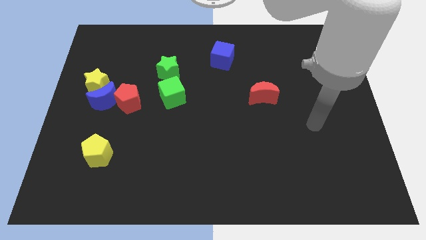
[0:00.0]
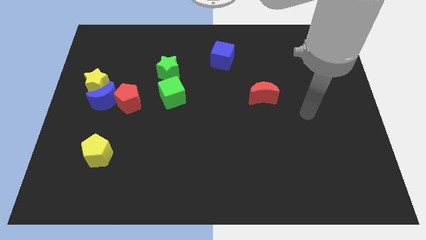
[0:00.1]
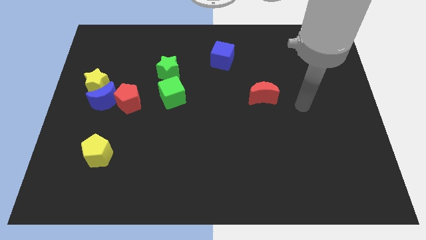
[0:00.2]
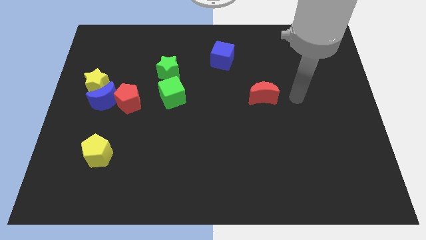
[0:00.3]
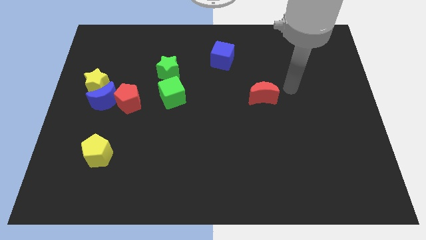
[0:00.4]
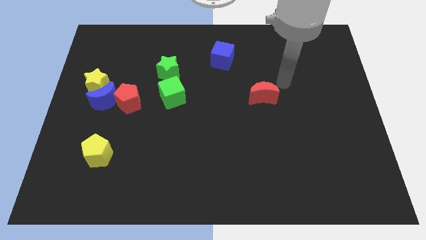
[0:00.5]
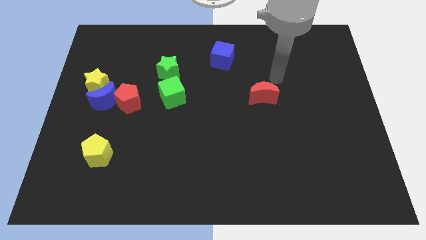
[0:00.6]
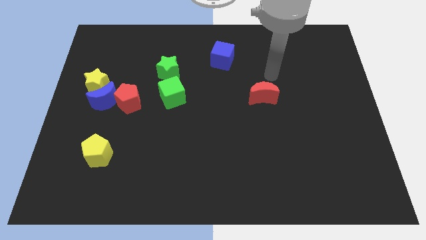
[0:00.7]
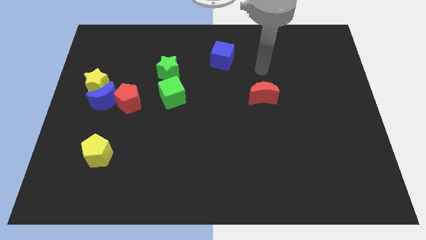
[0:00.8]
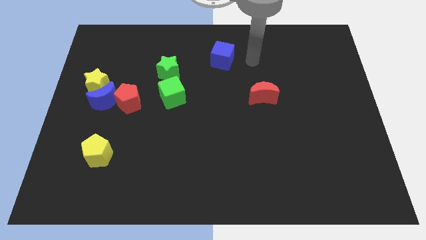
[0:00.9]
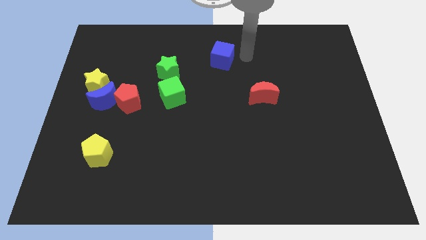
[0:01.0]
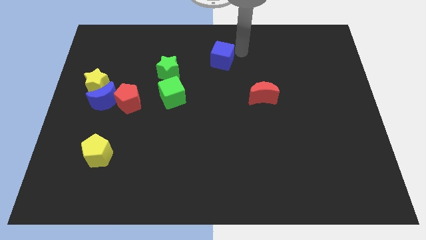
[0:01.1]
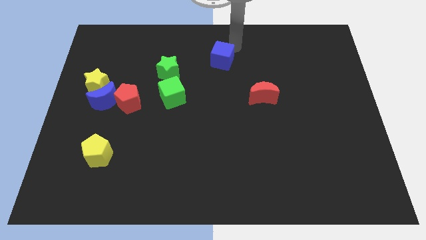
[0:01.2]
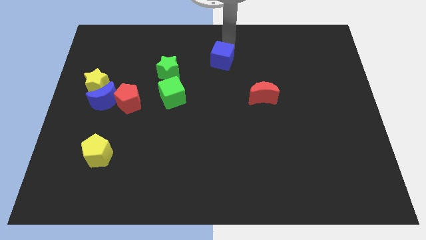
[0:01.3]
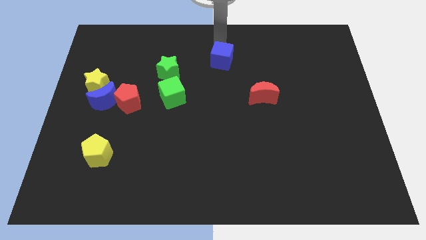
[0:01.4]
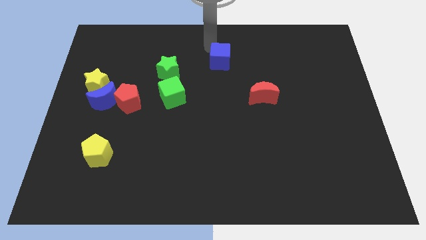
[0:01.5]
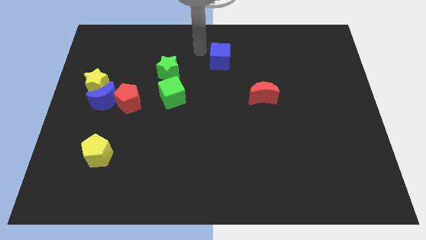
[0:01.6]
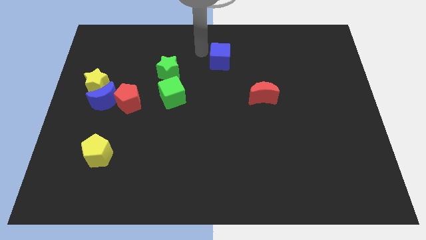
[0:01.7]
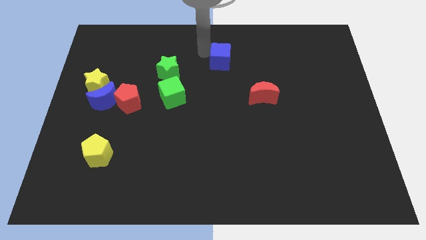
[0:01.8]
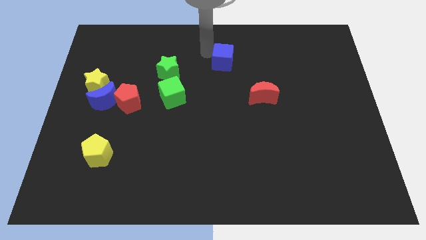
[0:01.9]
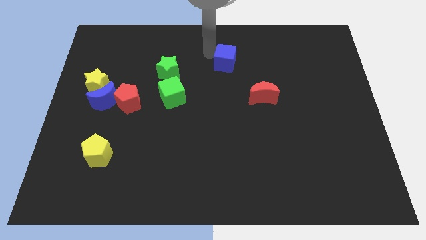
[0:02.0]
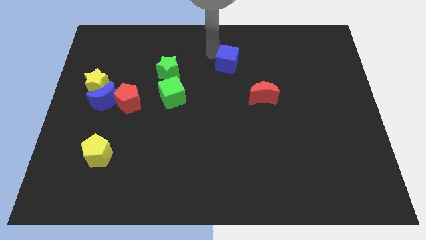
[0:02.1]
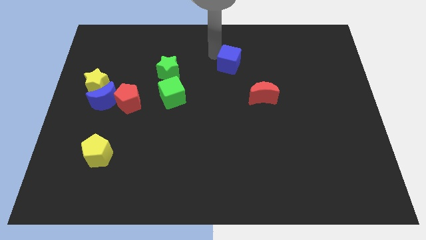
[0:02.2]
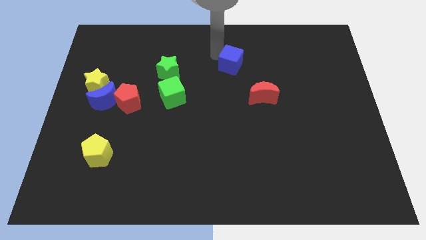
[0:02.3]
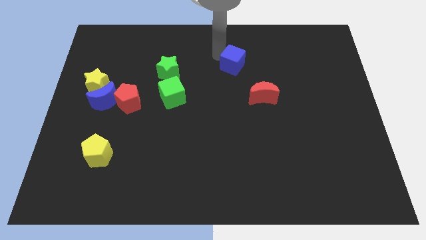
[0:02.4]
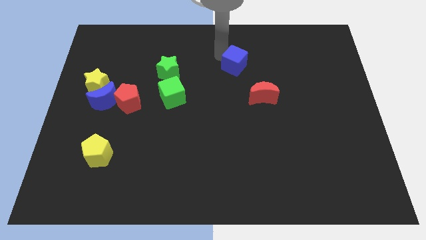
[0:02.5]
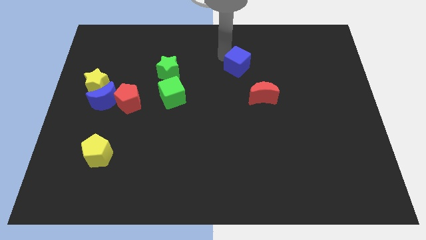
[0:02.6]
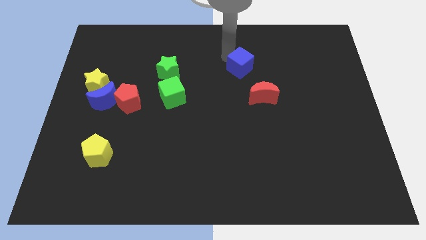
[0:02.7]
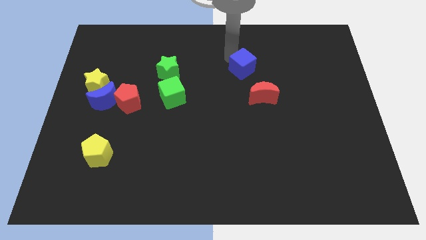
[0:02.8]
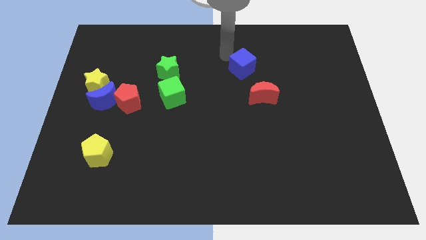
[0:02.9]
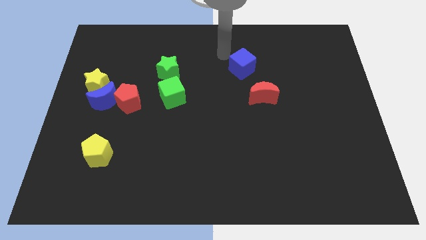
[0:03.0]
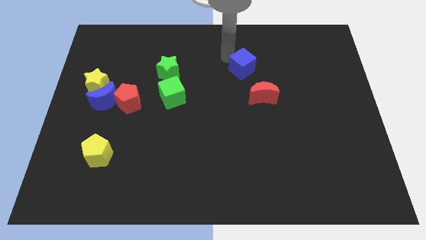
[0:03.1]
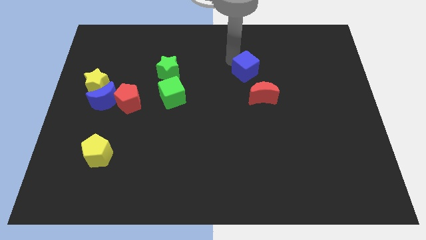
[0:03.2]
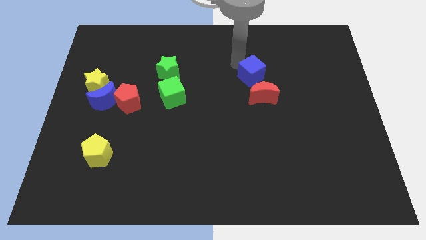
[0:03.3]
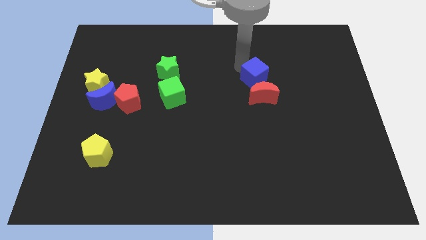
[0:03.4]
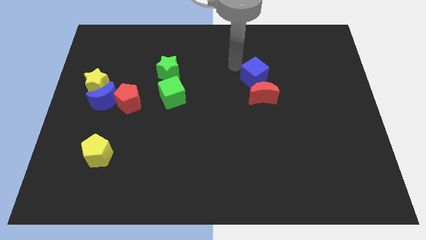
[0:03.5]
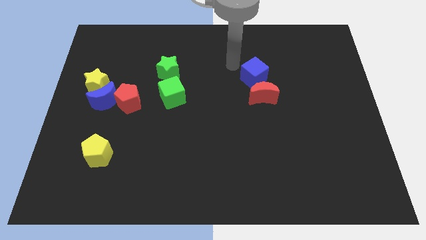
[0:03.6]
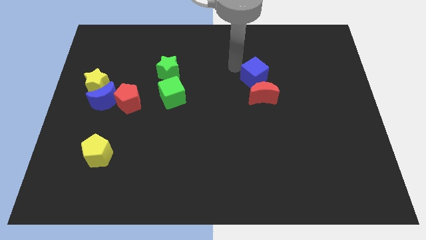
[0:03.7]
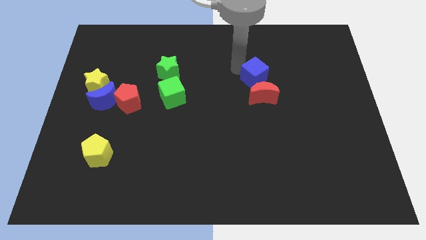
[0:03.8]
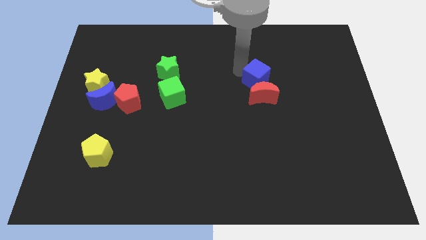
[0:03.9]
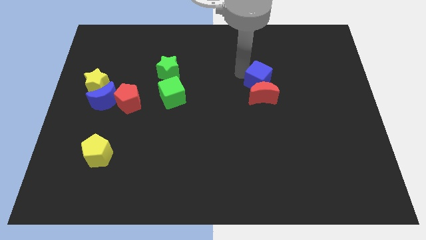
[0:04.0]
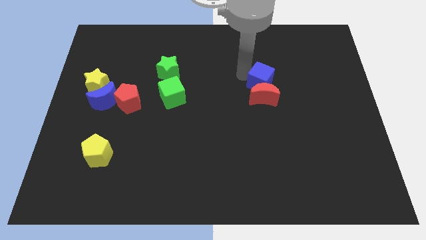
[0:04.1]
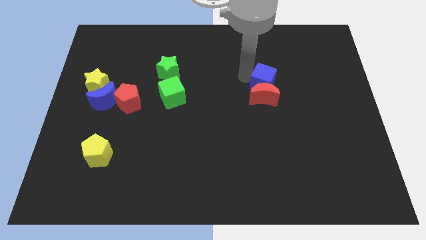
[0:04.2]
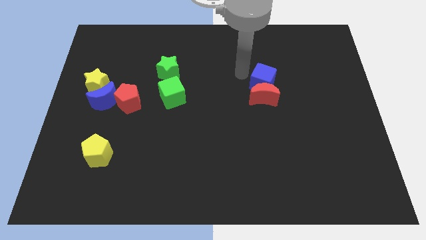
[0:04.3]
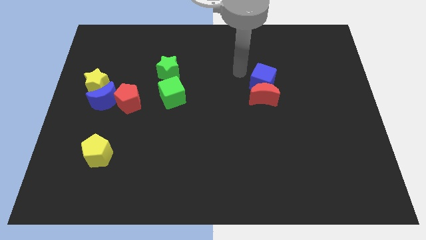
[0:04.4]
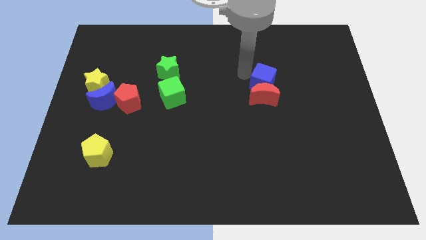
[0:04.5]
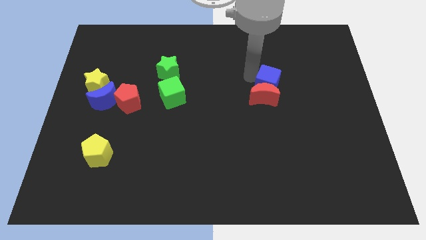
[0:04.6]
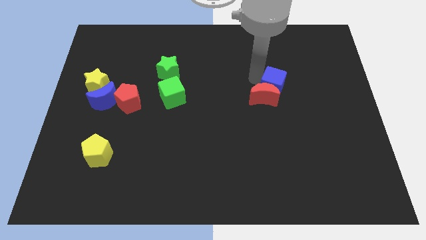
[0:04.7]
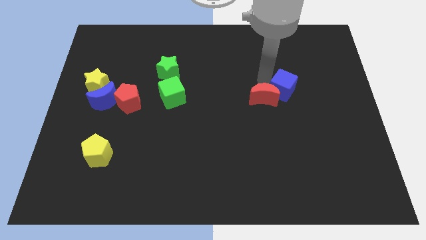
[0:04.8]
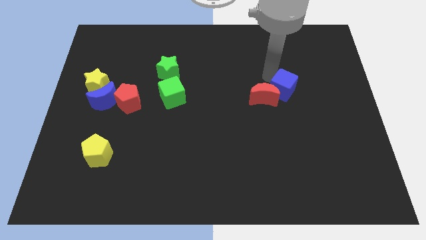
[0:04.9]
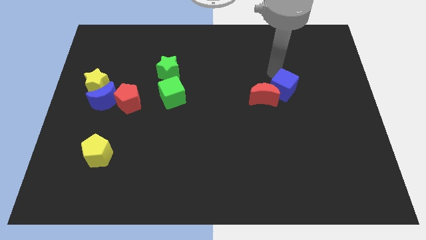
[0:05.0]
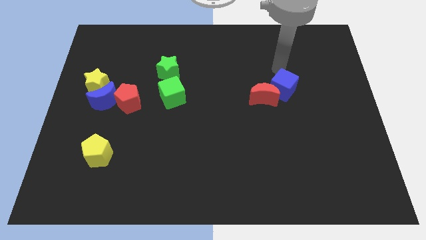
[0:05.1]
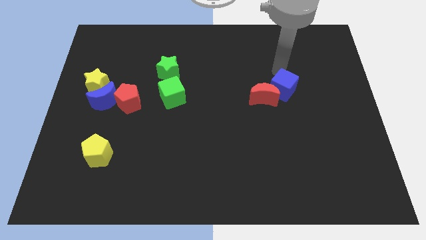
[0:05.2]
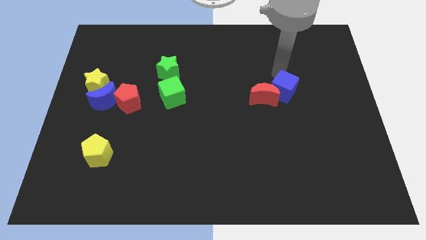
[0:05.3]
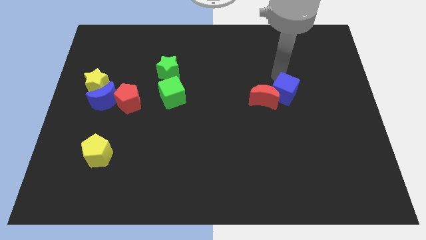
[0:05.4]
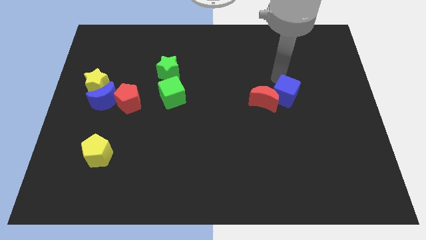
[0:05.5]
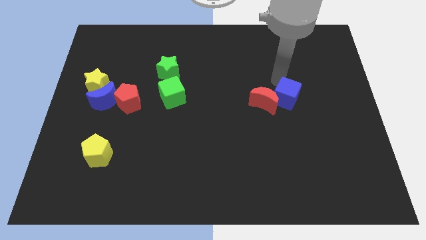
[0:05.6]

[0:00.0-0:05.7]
put the blue cube to the bottom right side of the red moon
